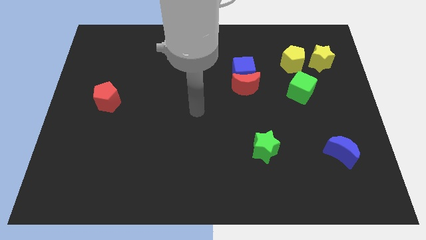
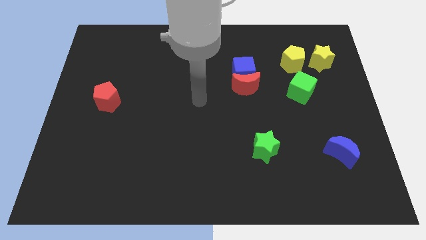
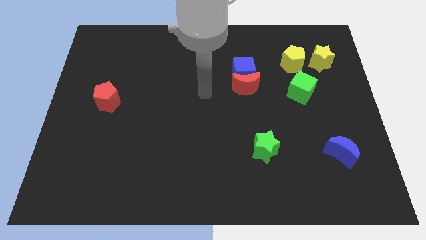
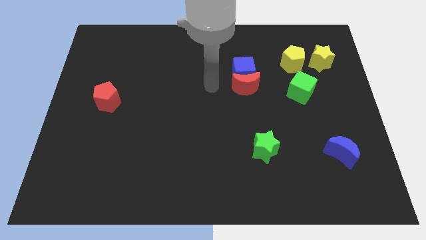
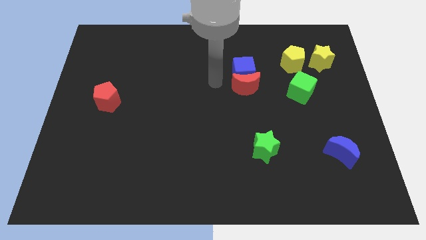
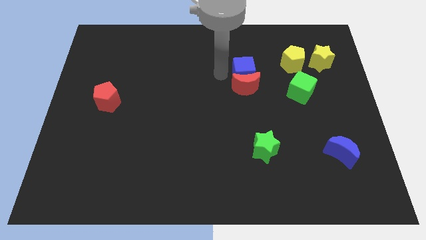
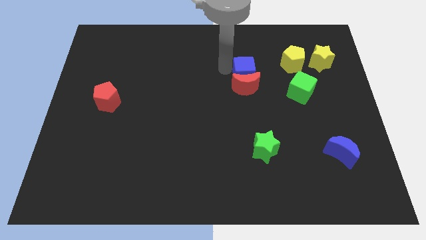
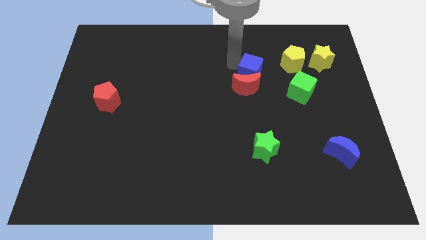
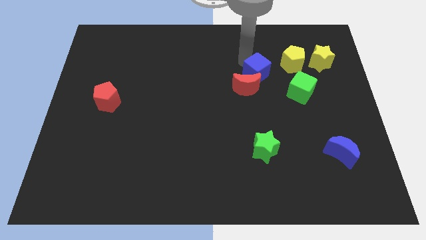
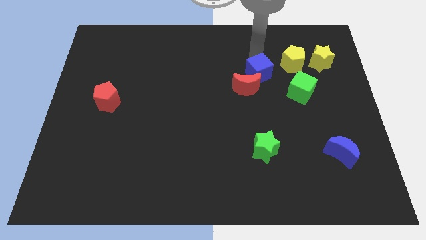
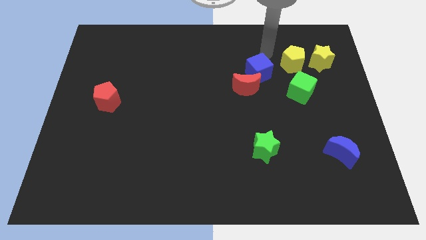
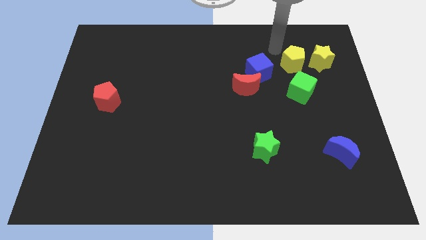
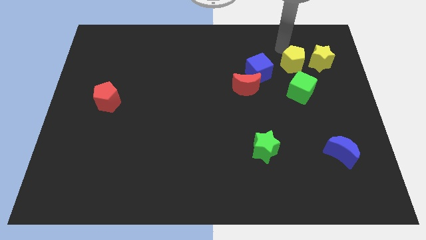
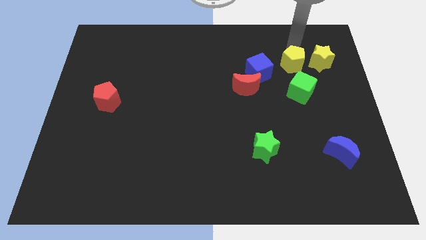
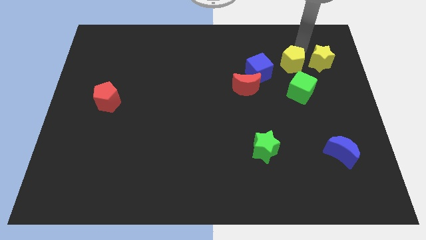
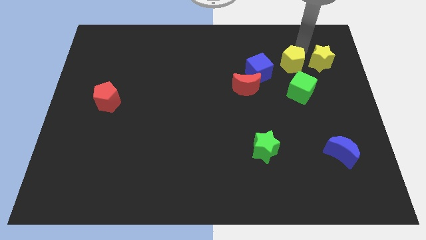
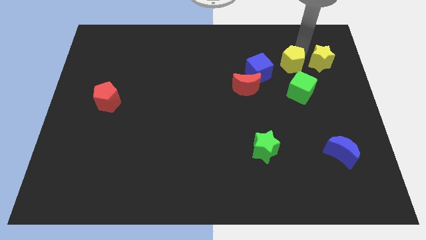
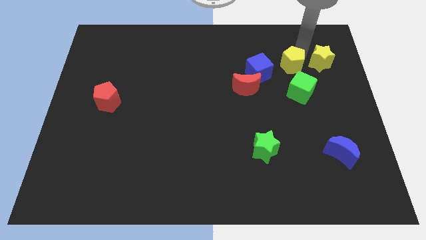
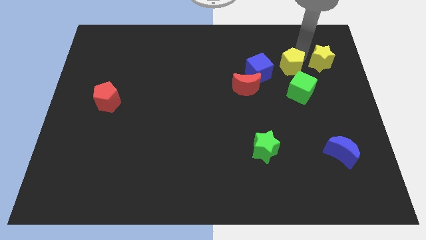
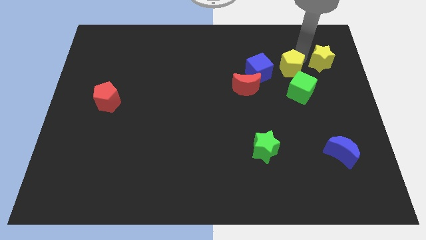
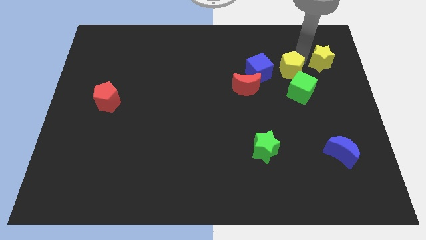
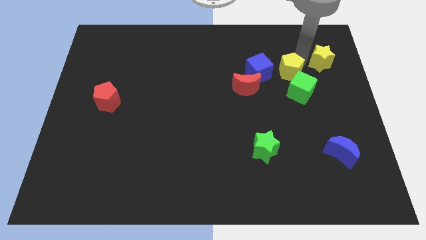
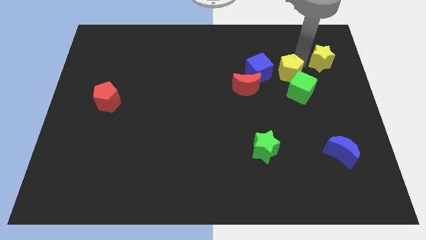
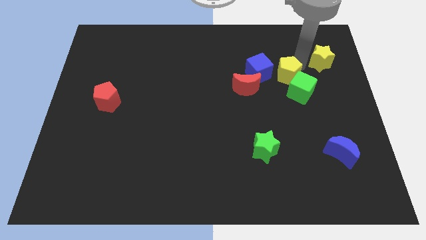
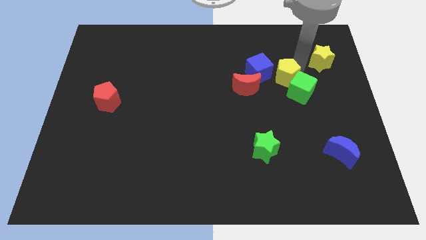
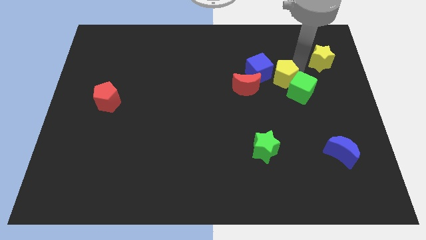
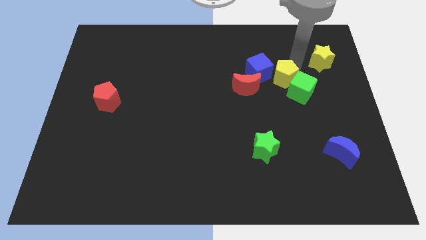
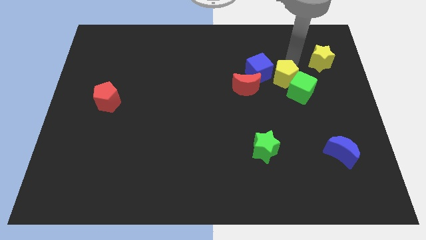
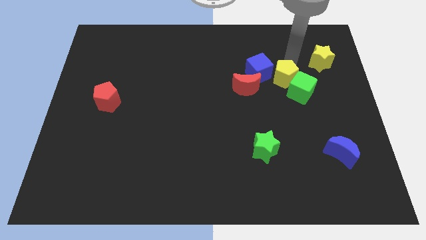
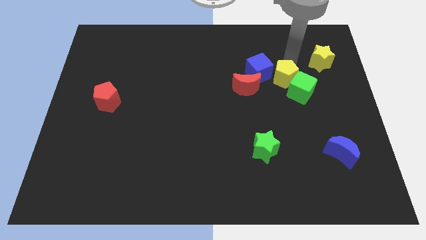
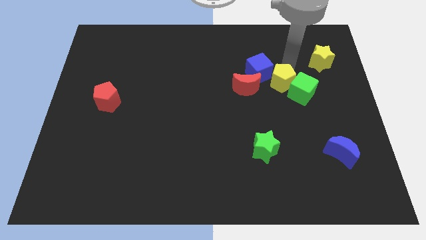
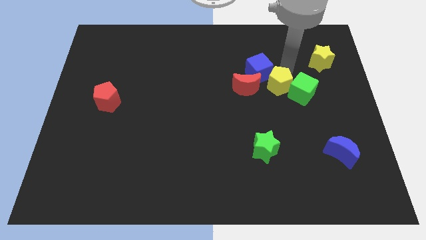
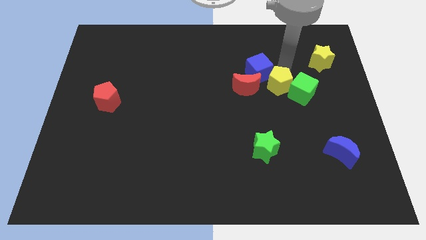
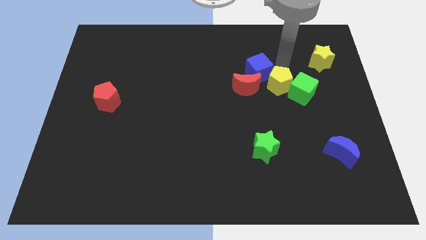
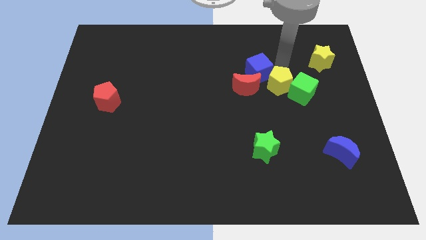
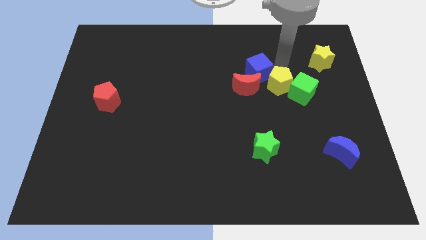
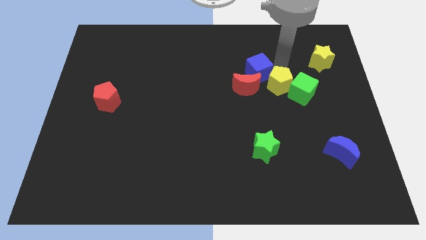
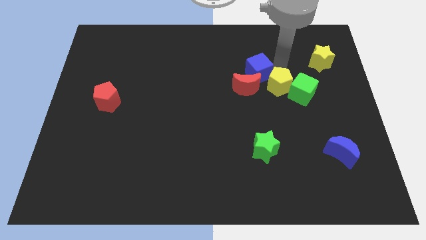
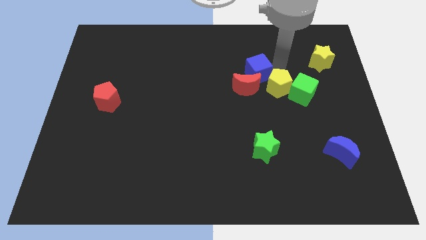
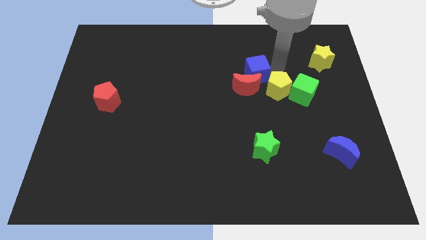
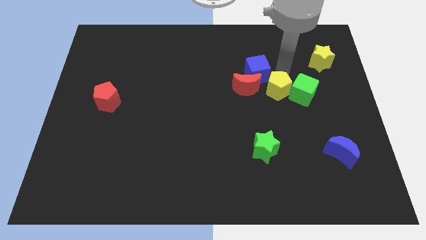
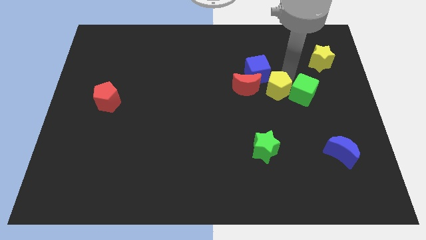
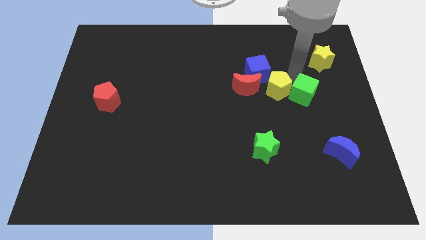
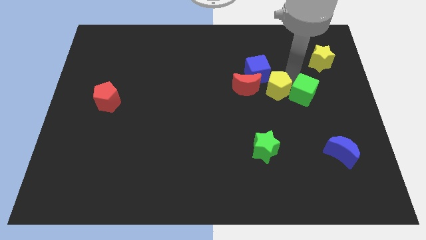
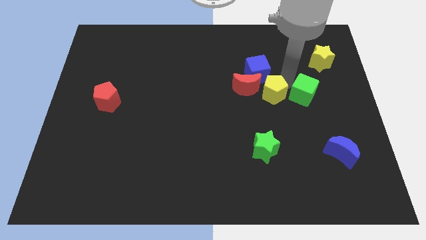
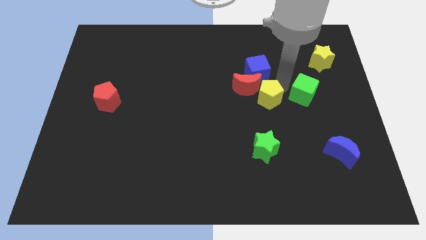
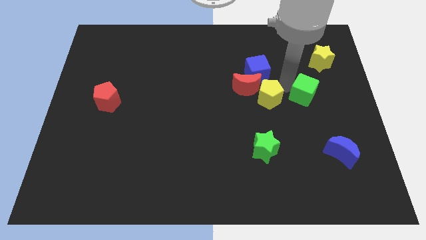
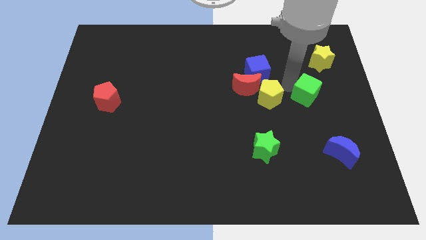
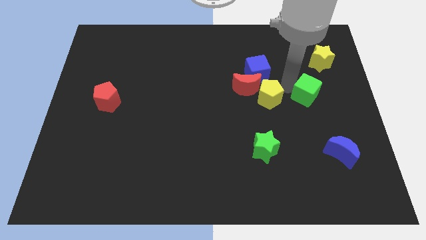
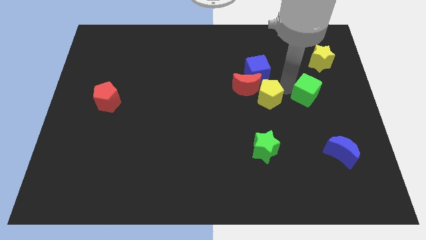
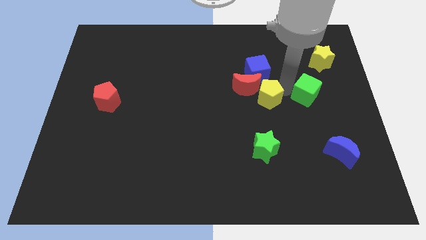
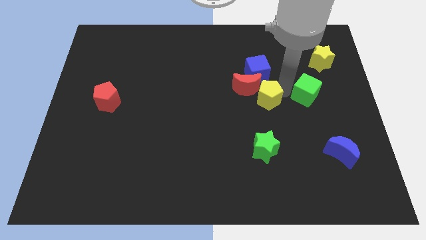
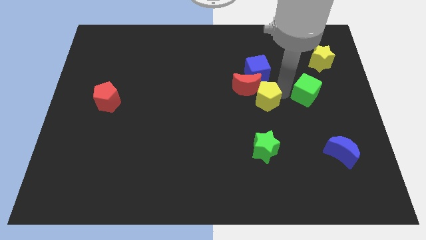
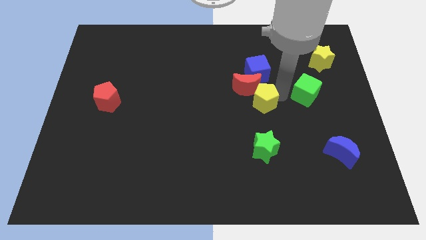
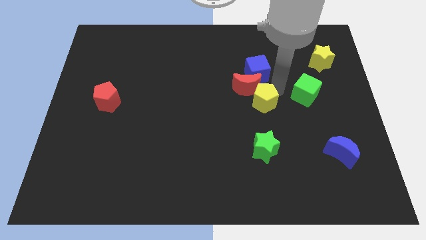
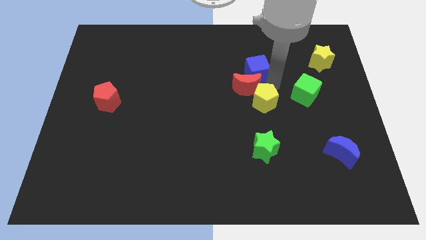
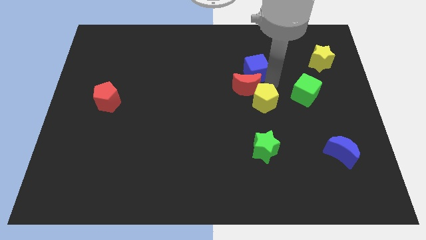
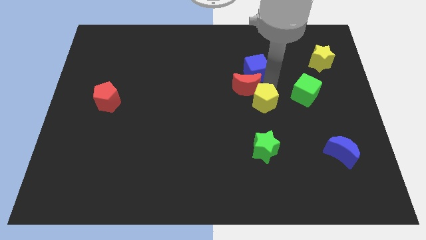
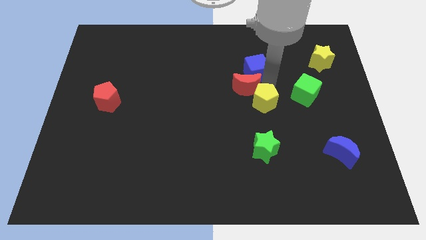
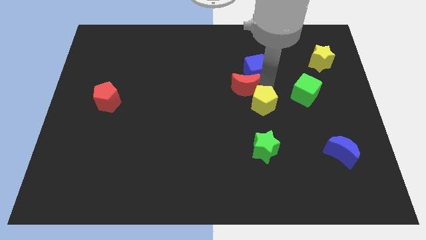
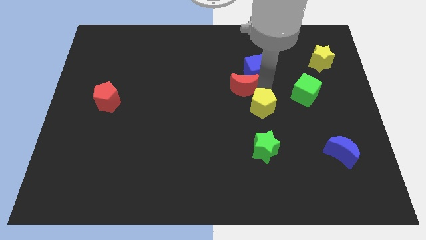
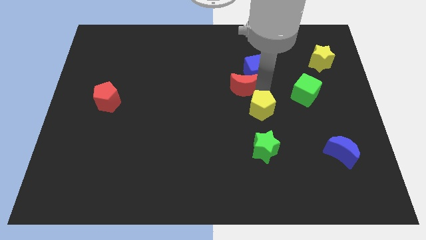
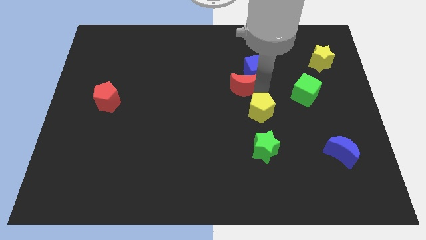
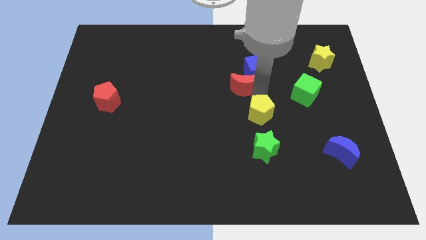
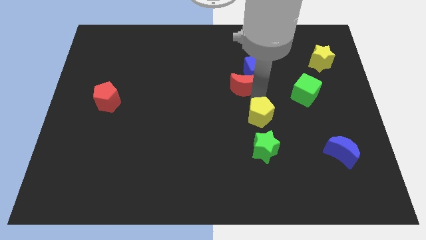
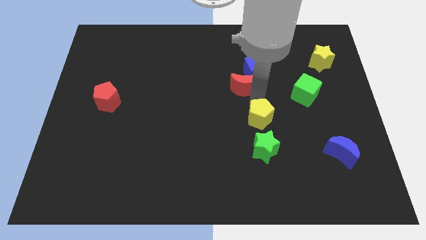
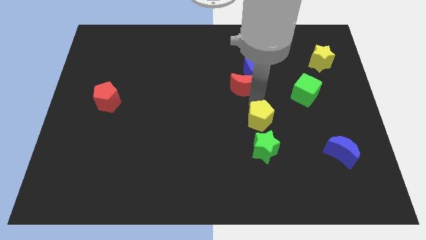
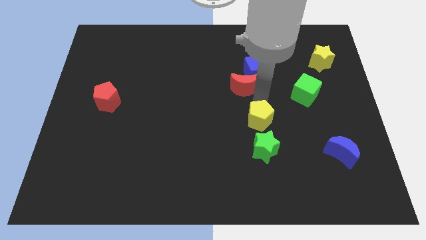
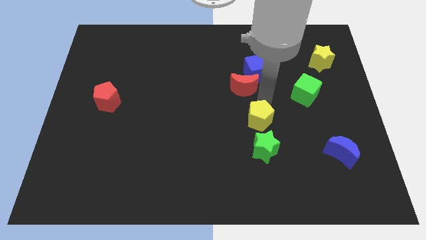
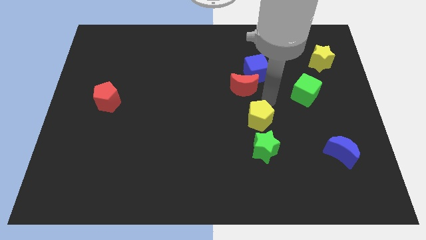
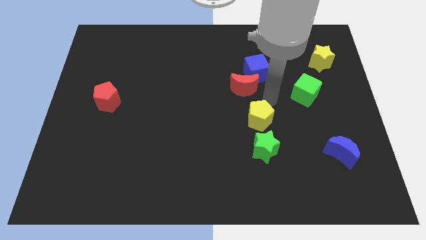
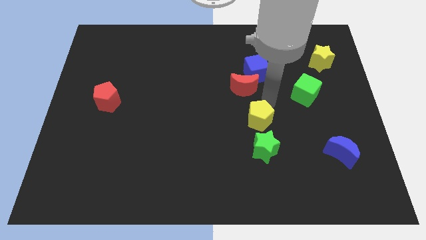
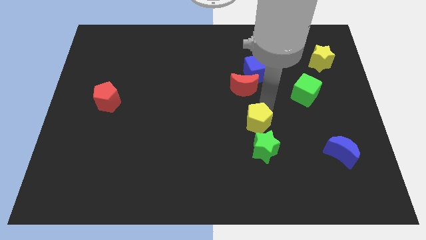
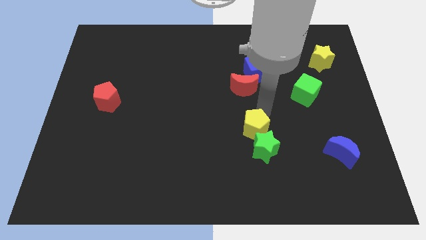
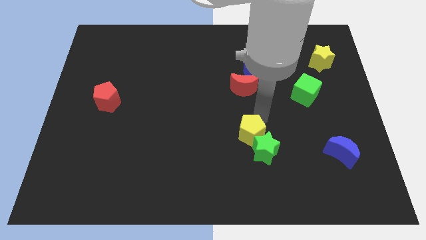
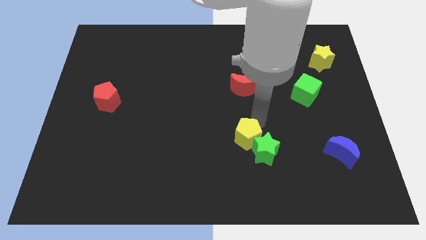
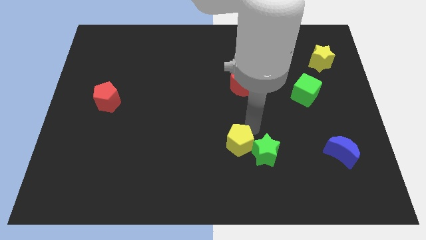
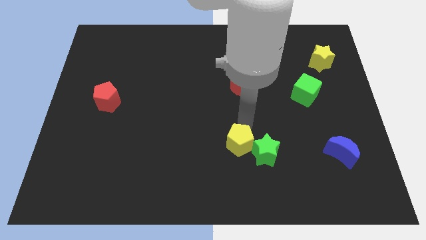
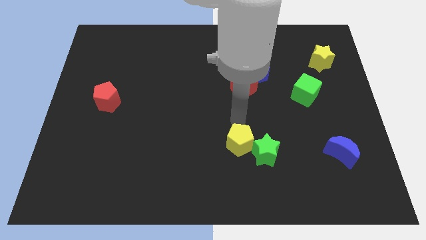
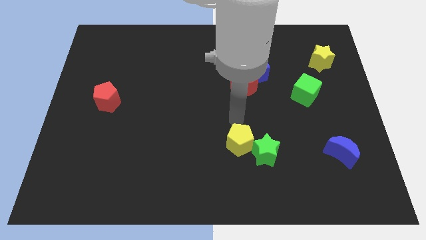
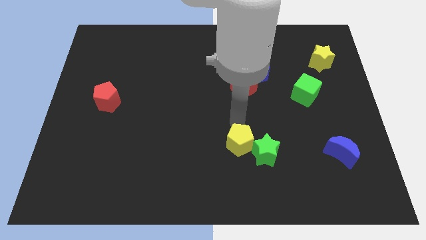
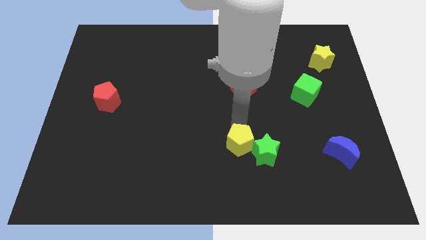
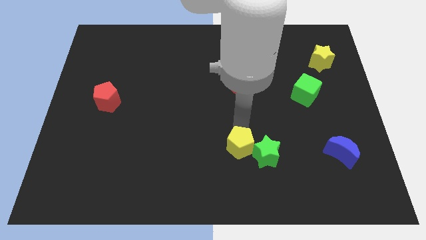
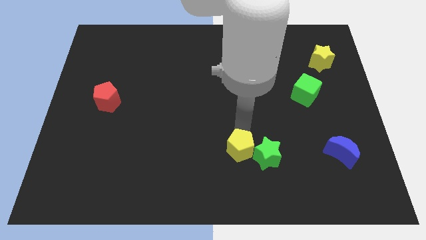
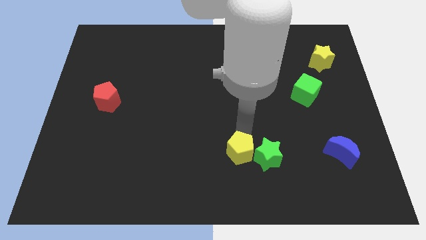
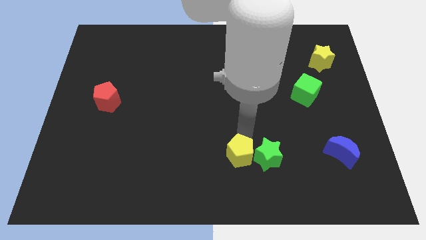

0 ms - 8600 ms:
move the yellow pentagon to the bottom left of the green star
